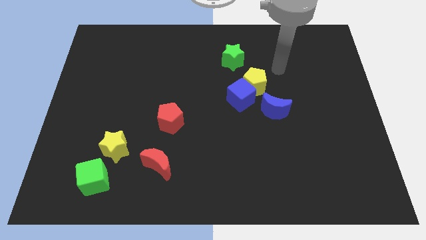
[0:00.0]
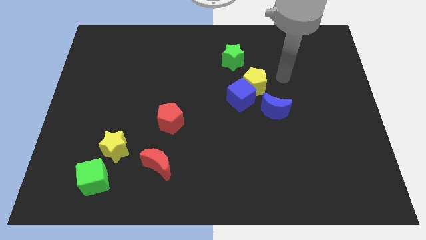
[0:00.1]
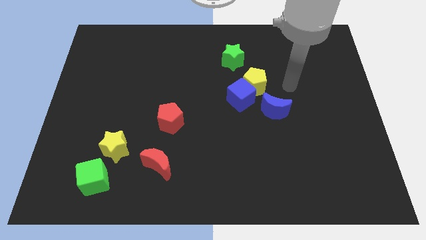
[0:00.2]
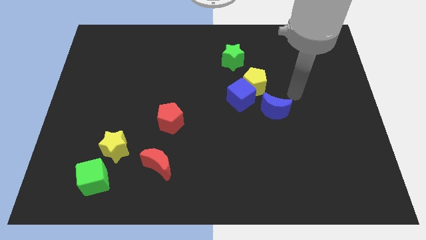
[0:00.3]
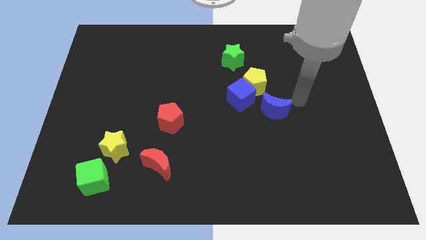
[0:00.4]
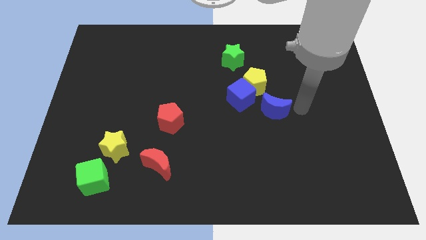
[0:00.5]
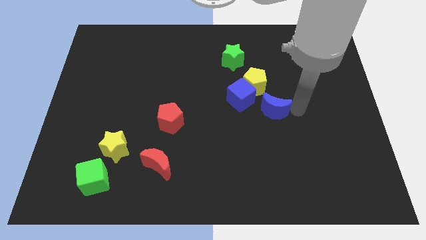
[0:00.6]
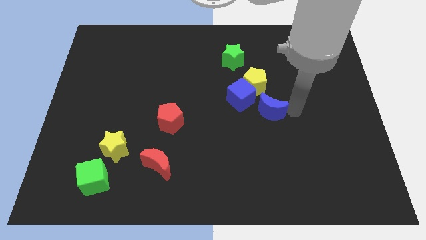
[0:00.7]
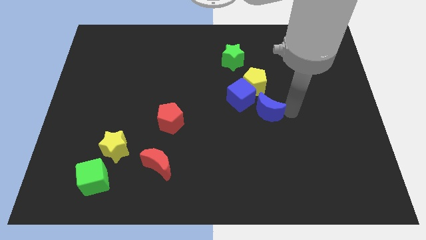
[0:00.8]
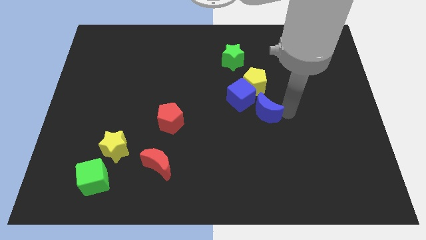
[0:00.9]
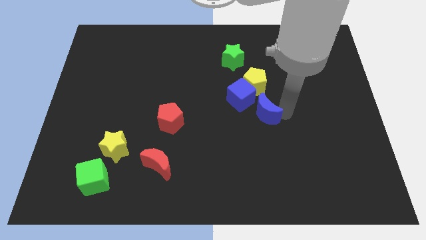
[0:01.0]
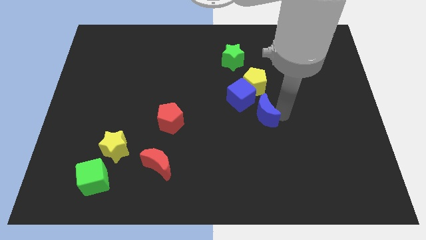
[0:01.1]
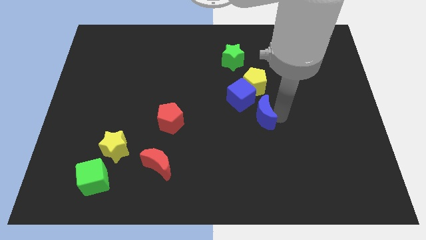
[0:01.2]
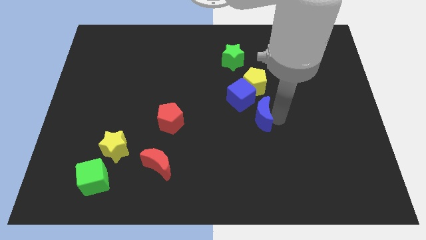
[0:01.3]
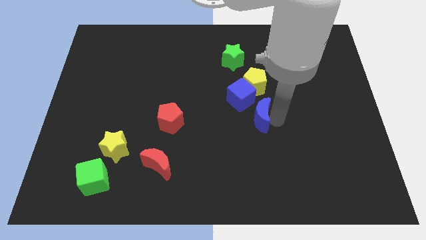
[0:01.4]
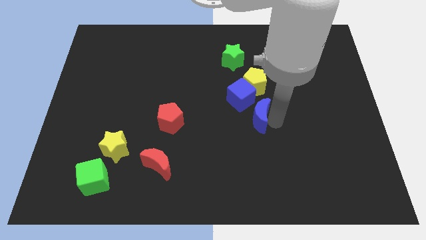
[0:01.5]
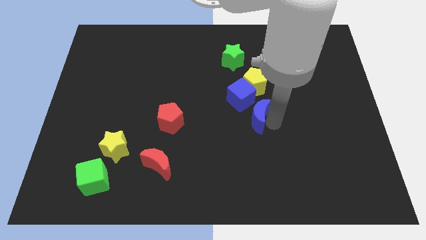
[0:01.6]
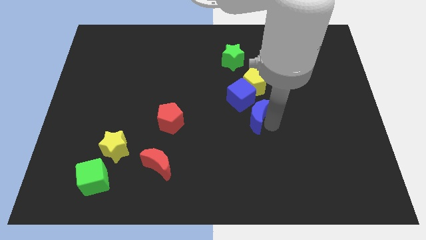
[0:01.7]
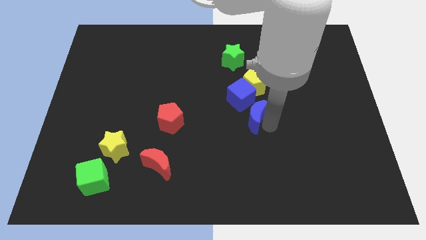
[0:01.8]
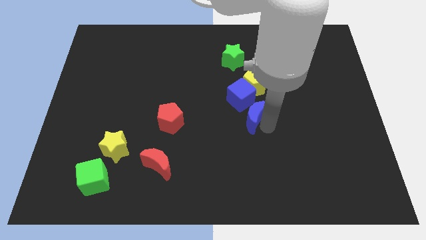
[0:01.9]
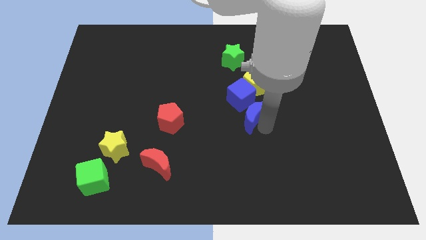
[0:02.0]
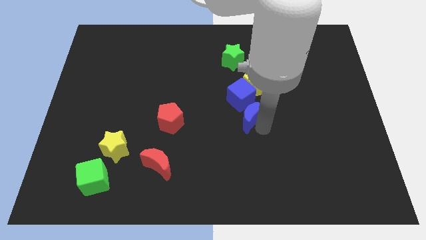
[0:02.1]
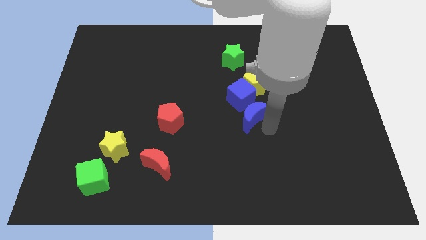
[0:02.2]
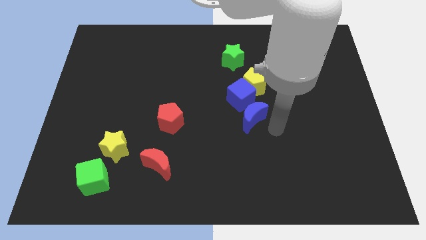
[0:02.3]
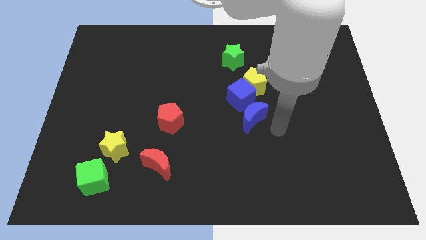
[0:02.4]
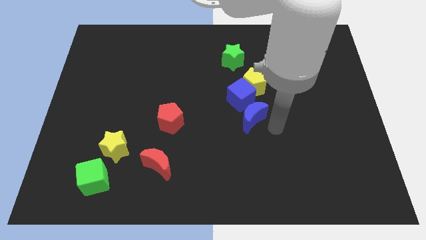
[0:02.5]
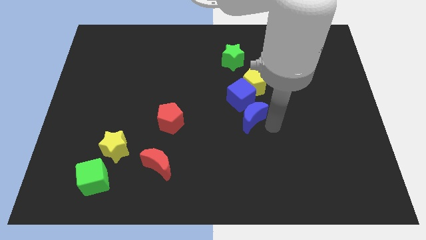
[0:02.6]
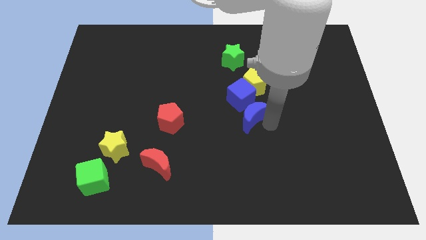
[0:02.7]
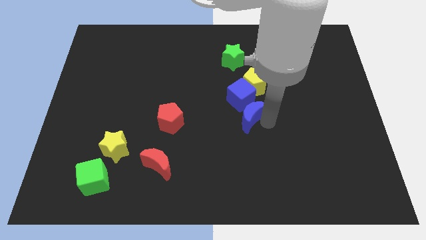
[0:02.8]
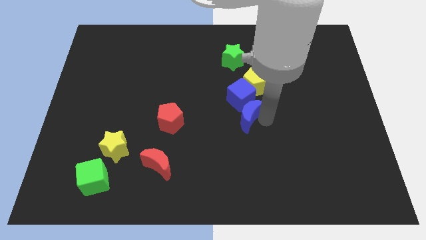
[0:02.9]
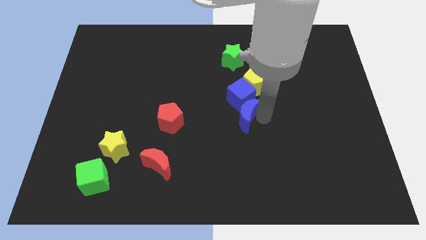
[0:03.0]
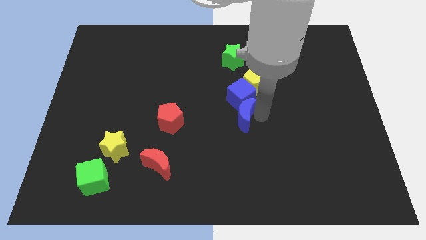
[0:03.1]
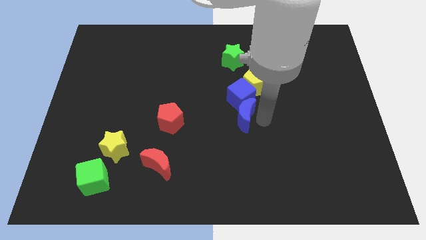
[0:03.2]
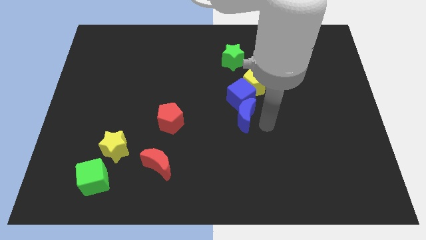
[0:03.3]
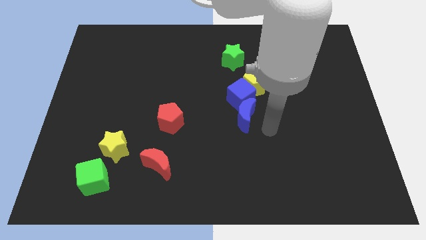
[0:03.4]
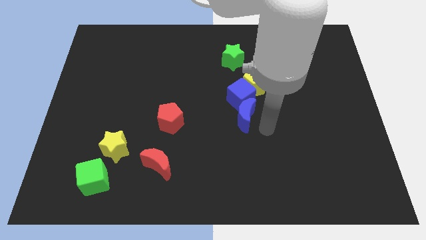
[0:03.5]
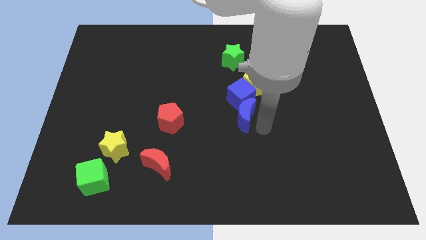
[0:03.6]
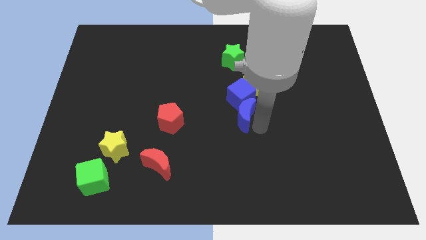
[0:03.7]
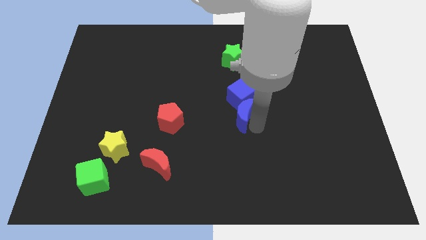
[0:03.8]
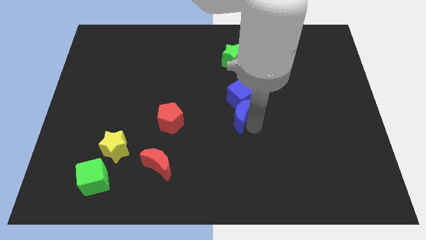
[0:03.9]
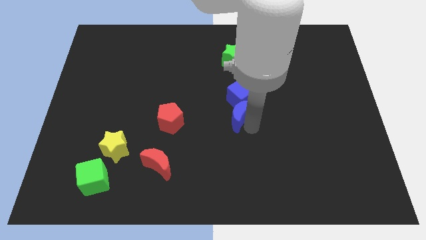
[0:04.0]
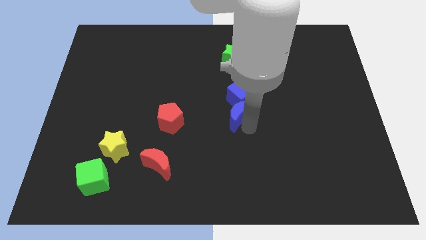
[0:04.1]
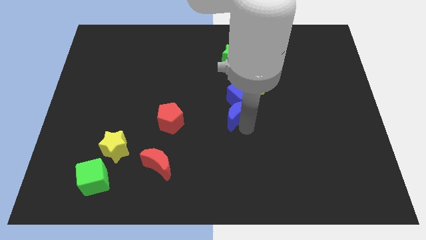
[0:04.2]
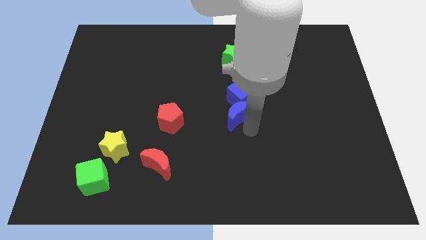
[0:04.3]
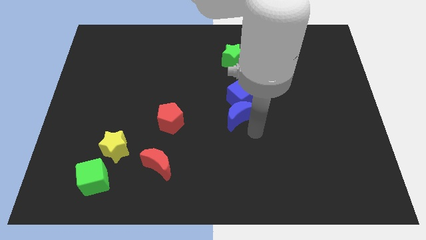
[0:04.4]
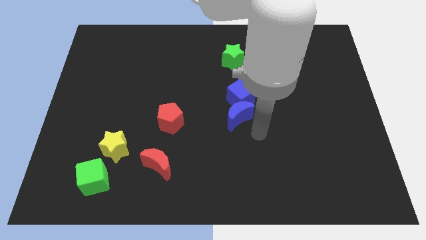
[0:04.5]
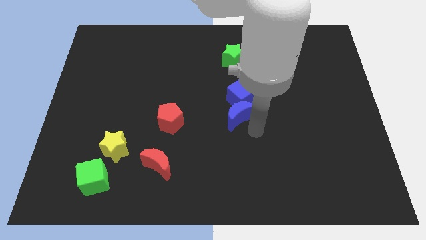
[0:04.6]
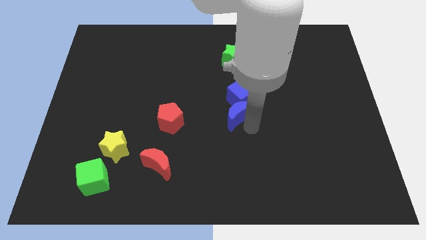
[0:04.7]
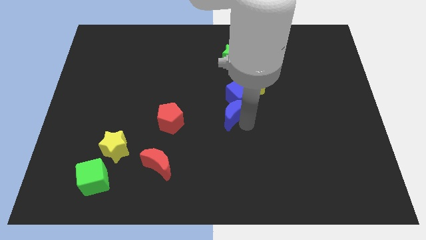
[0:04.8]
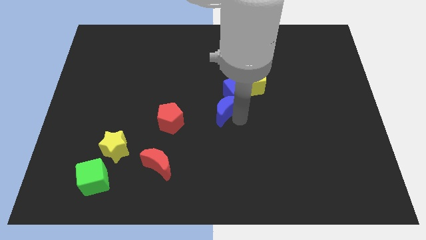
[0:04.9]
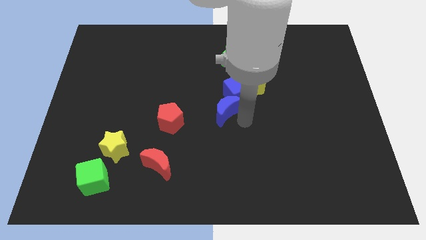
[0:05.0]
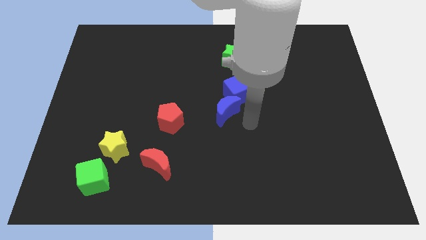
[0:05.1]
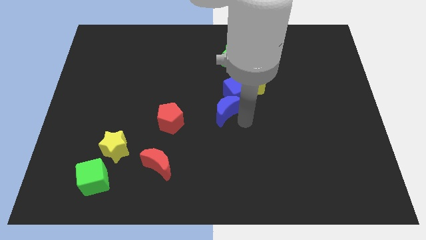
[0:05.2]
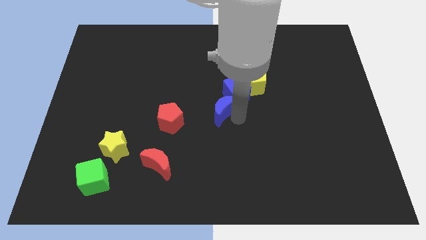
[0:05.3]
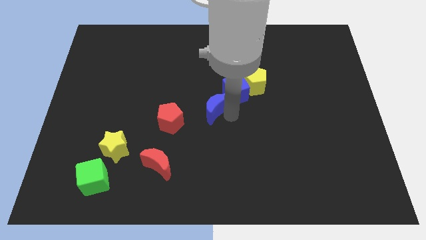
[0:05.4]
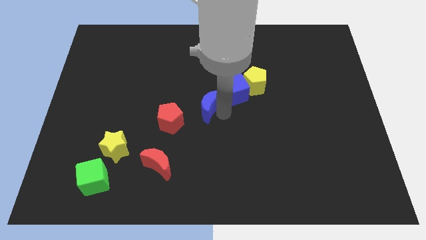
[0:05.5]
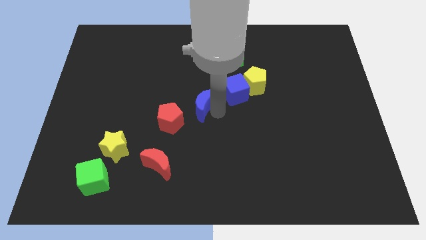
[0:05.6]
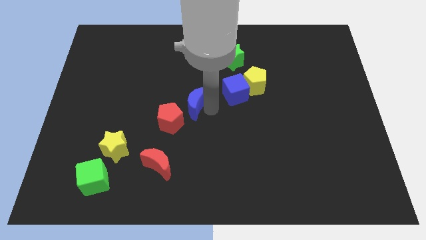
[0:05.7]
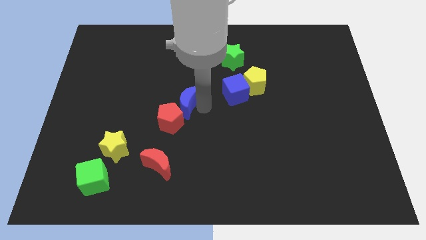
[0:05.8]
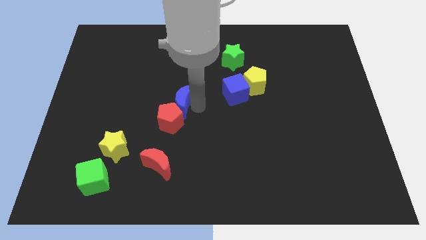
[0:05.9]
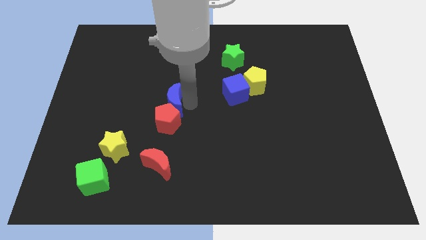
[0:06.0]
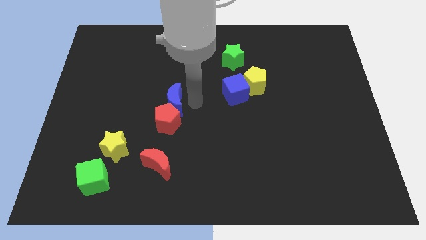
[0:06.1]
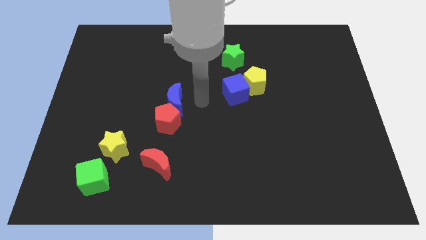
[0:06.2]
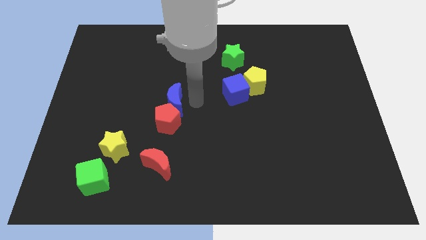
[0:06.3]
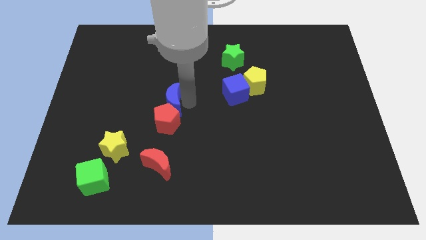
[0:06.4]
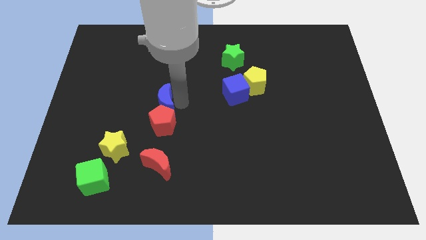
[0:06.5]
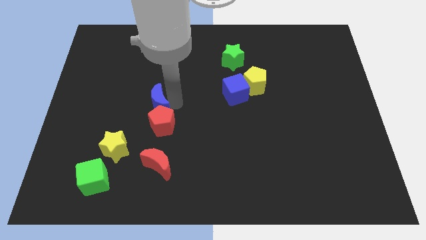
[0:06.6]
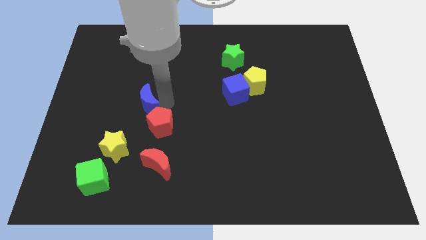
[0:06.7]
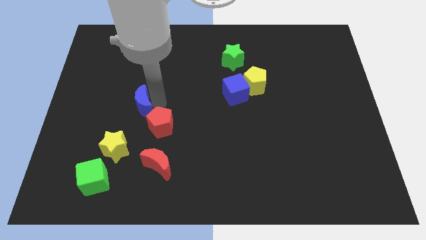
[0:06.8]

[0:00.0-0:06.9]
put the blue moon above the yellow star

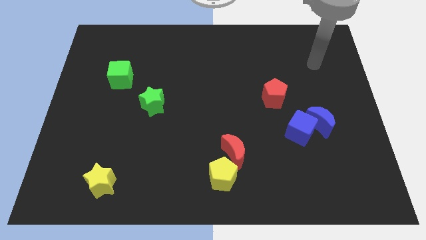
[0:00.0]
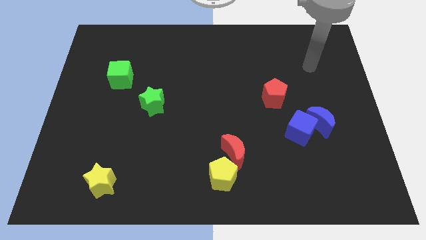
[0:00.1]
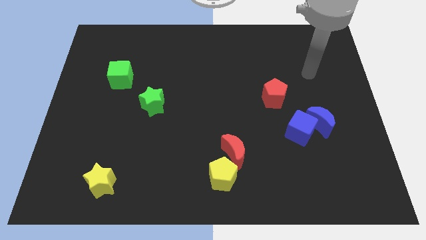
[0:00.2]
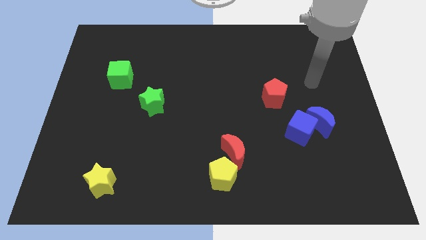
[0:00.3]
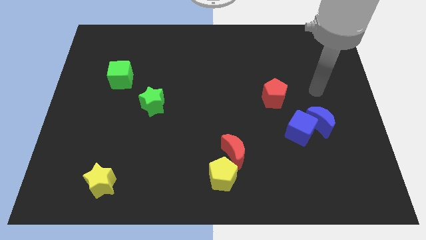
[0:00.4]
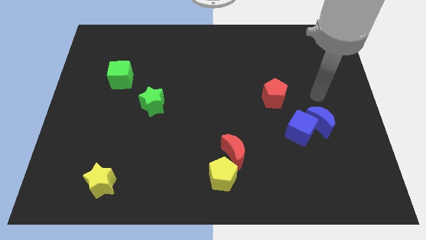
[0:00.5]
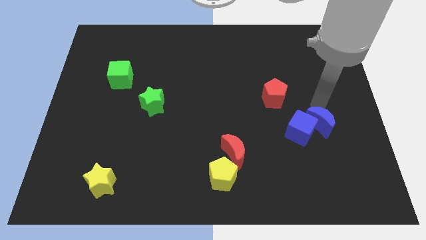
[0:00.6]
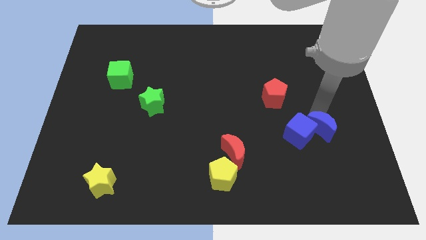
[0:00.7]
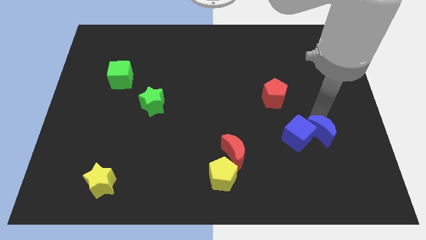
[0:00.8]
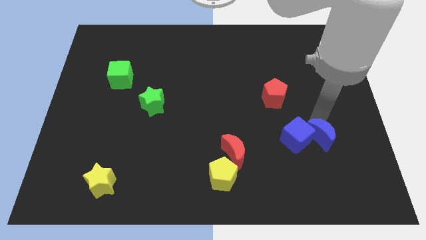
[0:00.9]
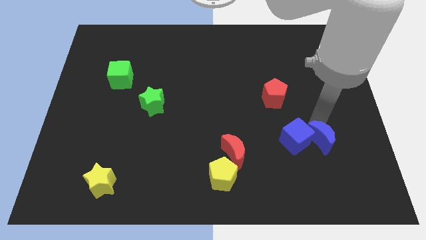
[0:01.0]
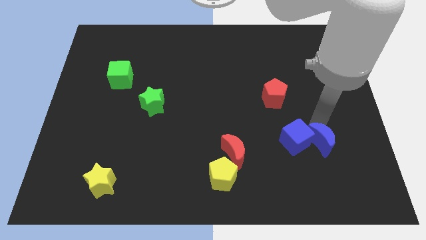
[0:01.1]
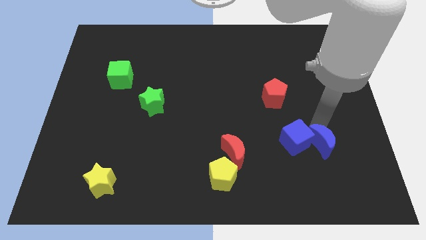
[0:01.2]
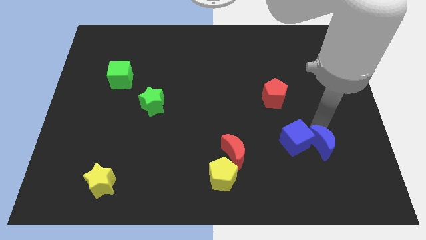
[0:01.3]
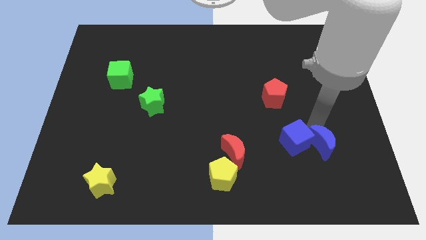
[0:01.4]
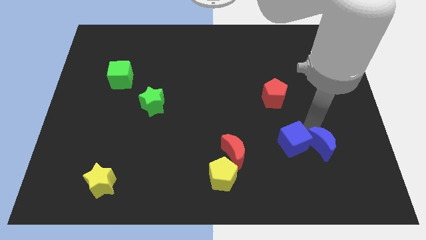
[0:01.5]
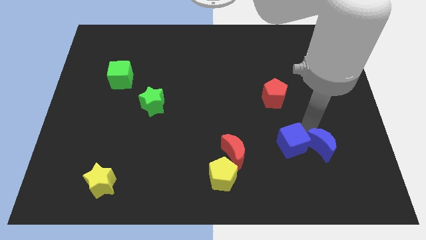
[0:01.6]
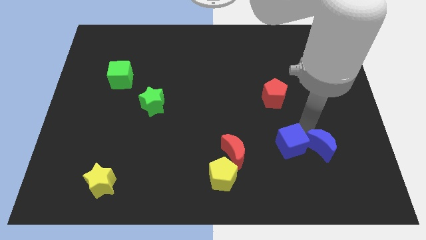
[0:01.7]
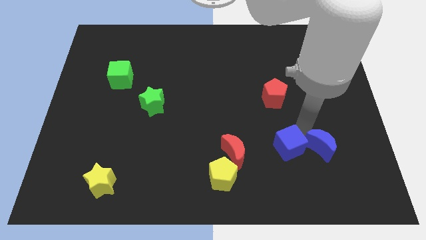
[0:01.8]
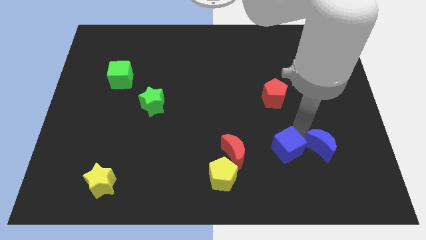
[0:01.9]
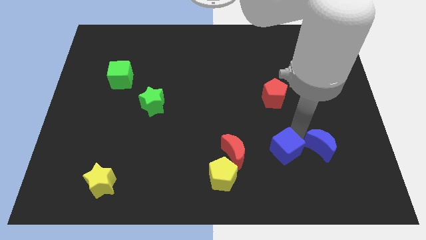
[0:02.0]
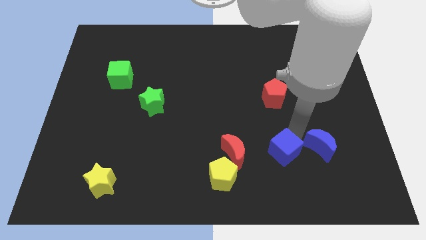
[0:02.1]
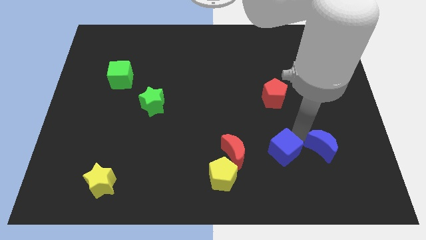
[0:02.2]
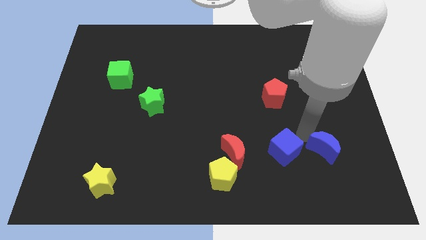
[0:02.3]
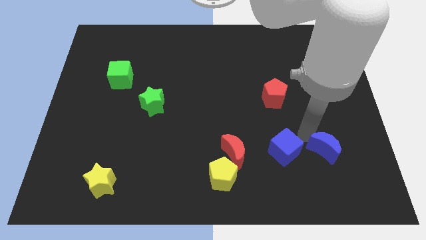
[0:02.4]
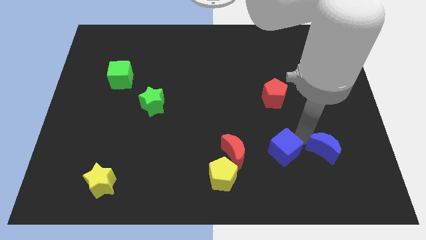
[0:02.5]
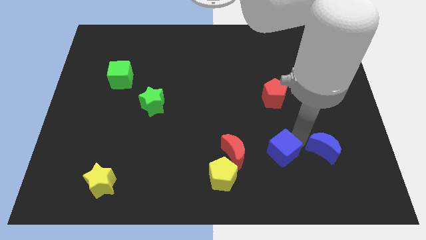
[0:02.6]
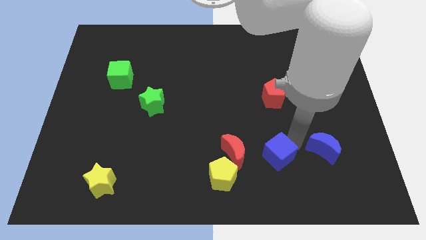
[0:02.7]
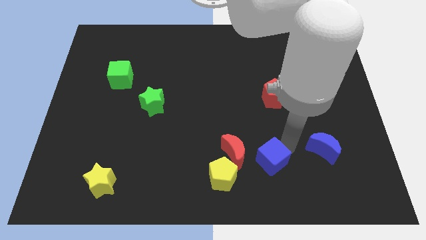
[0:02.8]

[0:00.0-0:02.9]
slide the blue cube to the bottom right side of the red moon
